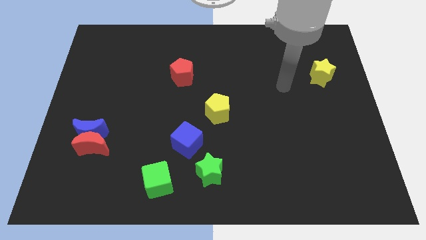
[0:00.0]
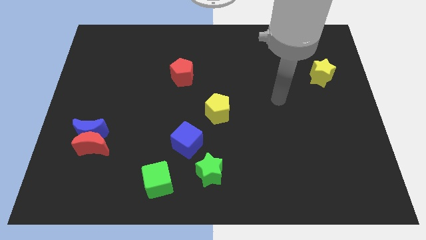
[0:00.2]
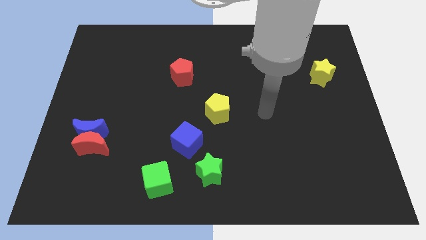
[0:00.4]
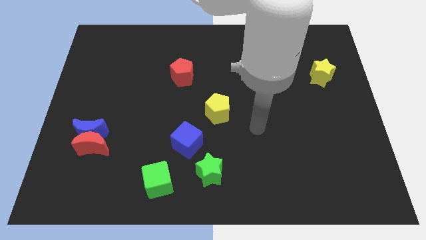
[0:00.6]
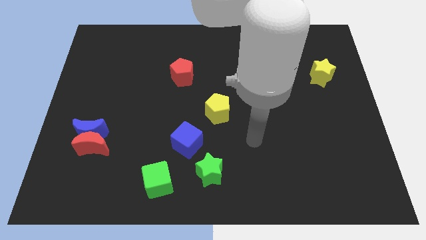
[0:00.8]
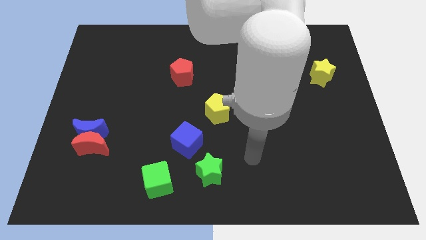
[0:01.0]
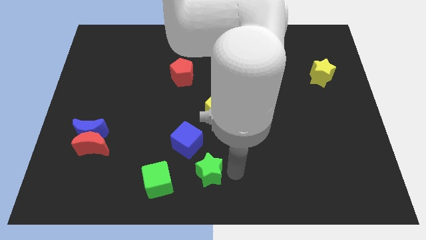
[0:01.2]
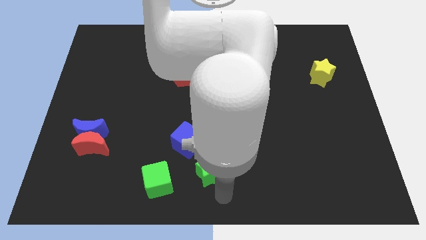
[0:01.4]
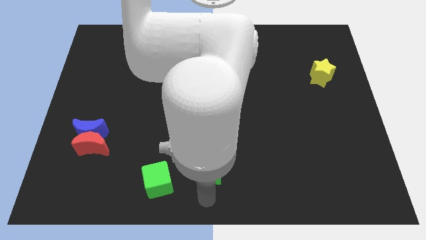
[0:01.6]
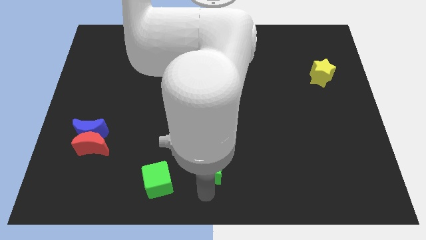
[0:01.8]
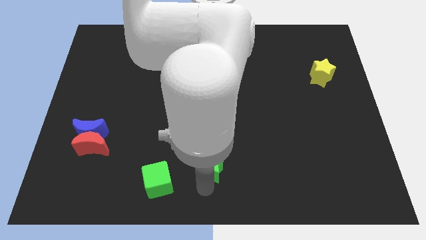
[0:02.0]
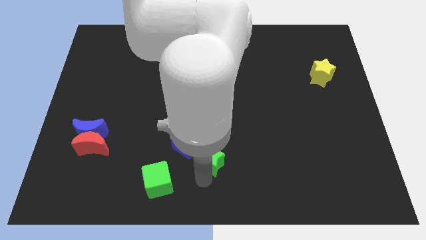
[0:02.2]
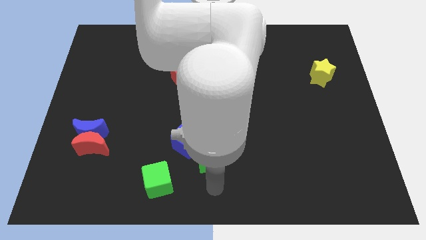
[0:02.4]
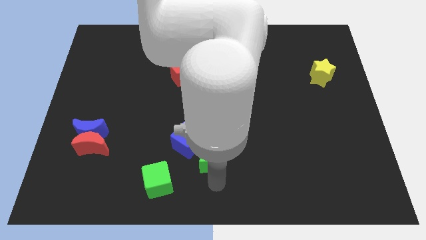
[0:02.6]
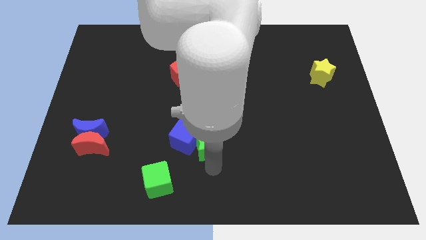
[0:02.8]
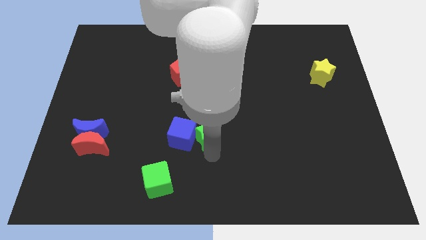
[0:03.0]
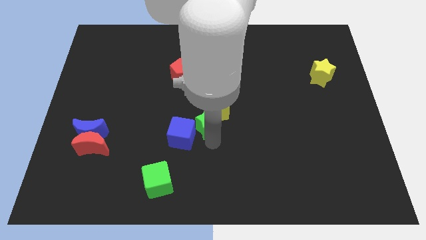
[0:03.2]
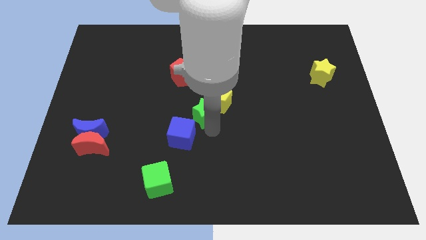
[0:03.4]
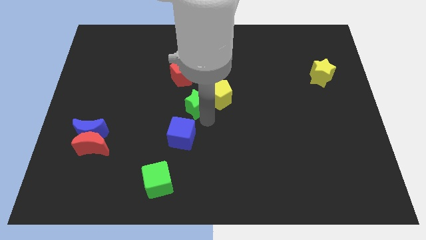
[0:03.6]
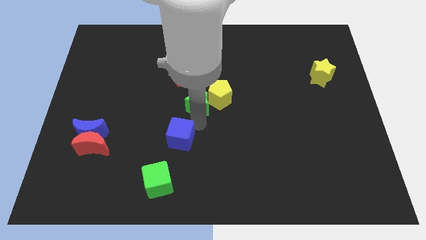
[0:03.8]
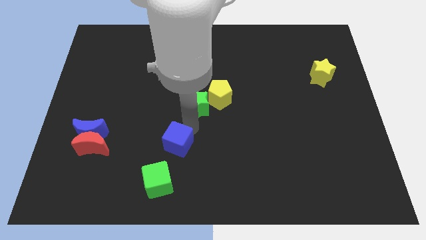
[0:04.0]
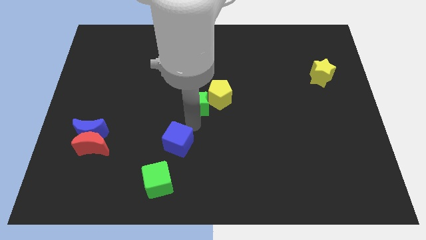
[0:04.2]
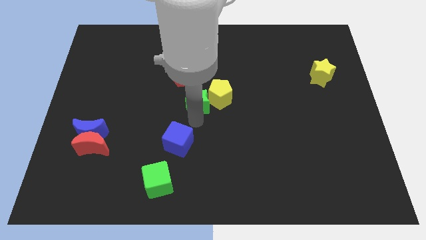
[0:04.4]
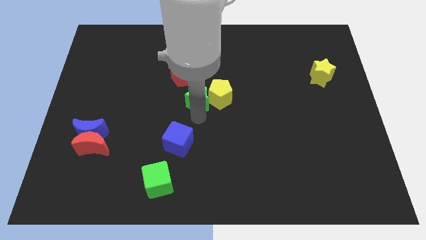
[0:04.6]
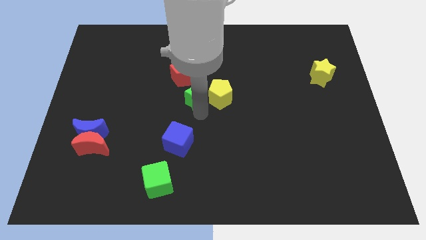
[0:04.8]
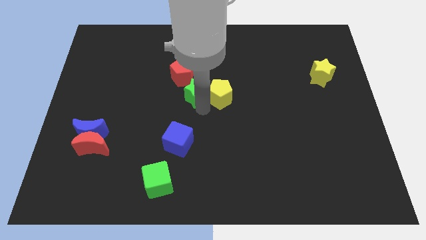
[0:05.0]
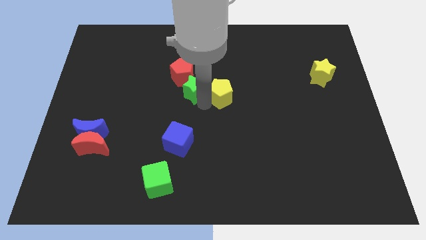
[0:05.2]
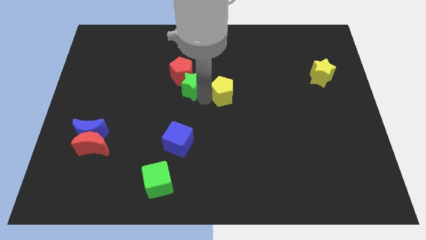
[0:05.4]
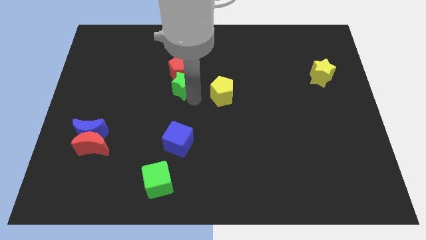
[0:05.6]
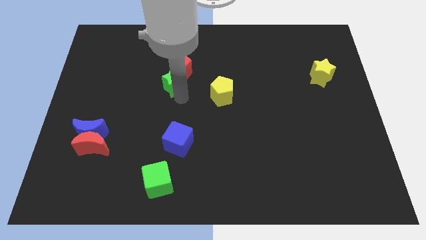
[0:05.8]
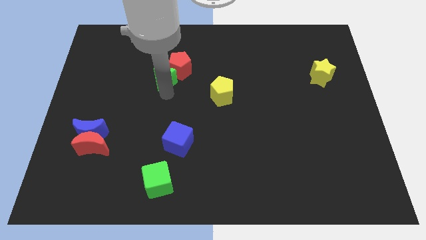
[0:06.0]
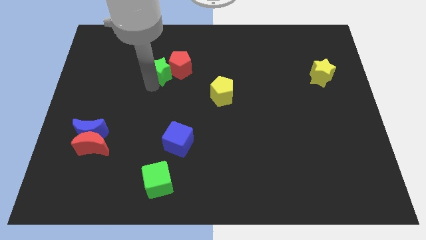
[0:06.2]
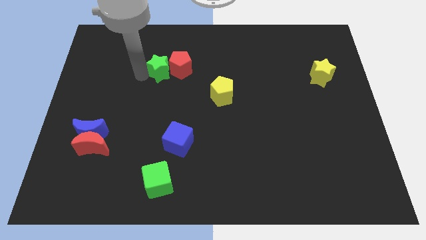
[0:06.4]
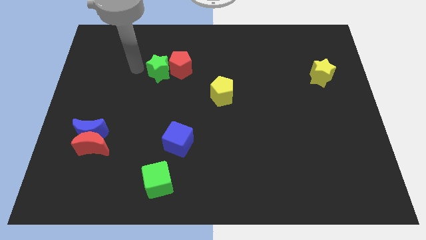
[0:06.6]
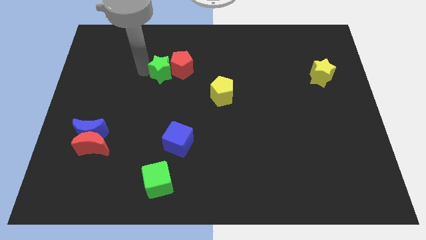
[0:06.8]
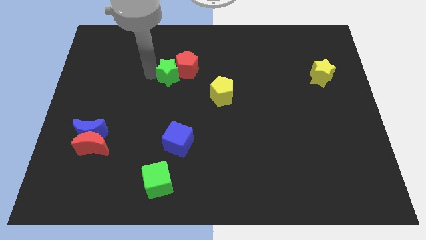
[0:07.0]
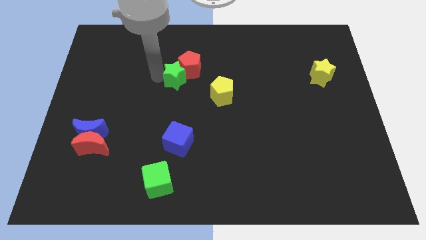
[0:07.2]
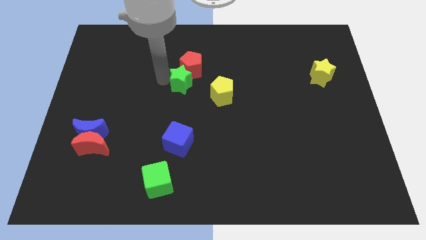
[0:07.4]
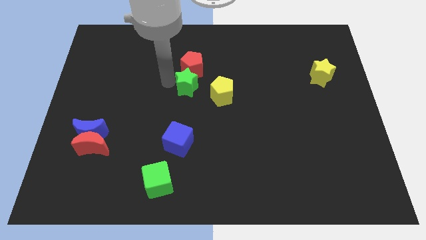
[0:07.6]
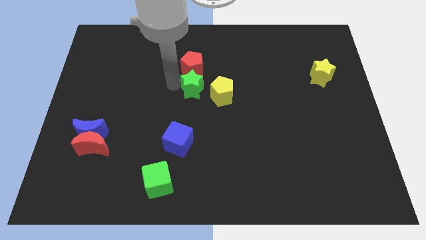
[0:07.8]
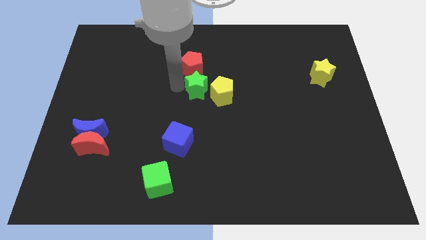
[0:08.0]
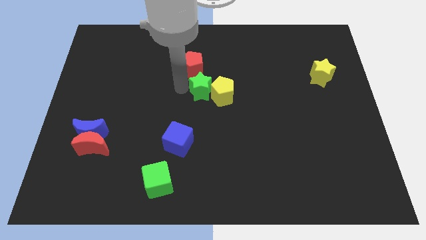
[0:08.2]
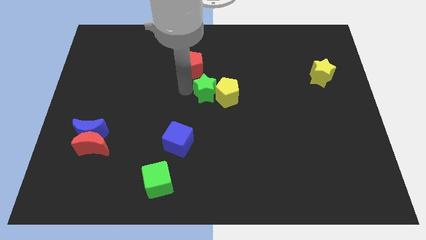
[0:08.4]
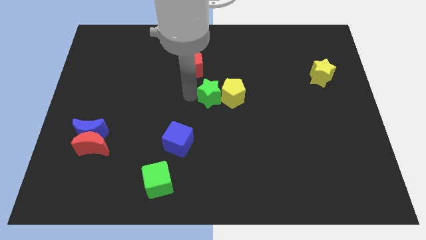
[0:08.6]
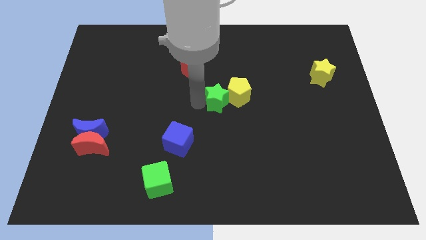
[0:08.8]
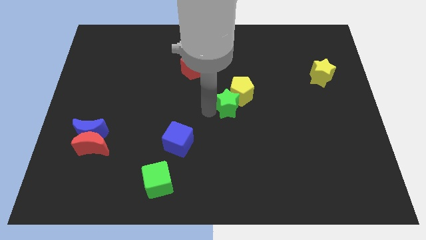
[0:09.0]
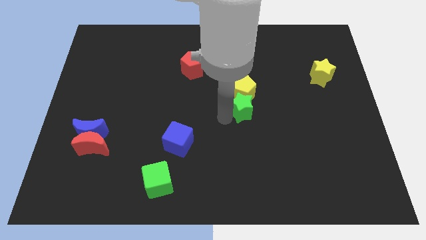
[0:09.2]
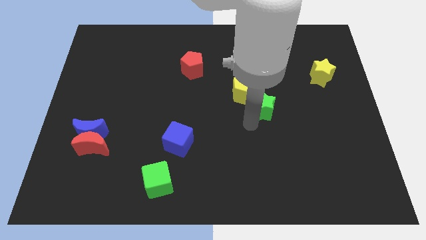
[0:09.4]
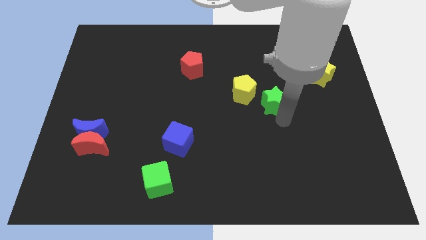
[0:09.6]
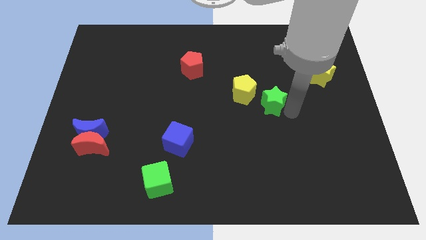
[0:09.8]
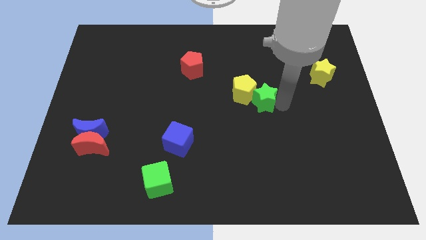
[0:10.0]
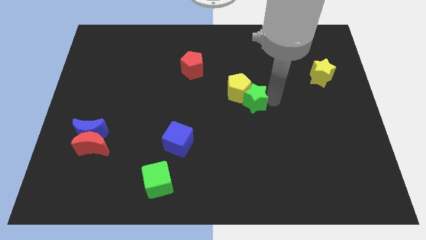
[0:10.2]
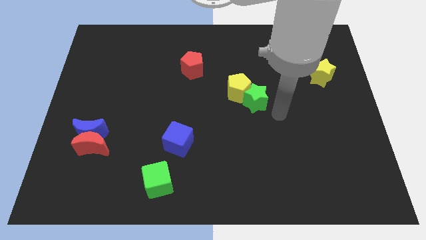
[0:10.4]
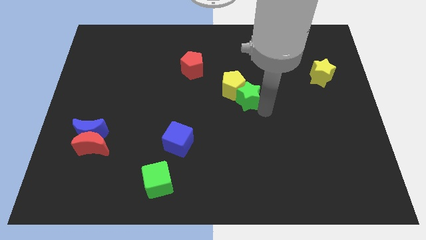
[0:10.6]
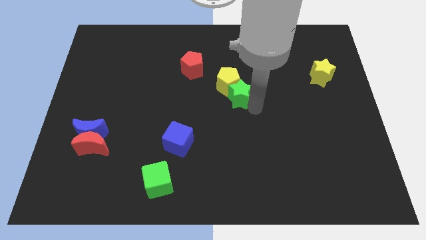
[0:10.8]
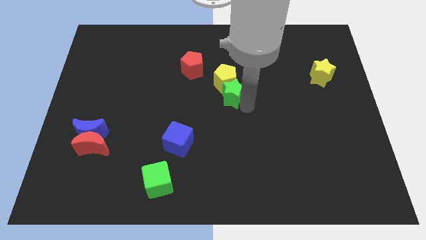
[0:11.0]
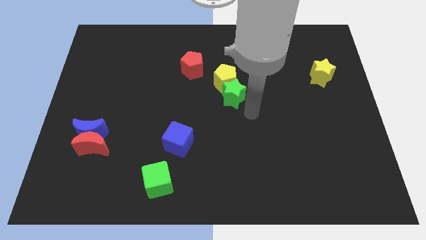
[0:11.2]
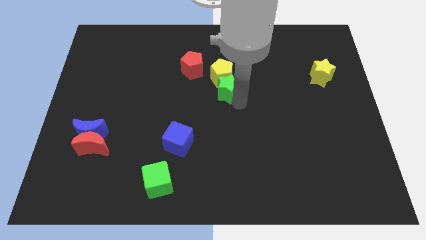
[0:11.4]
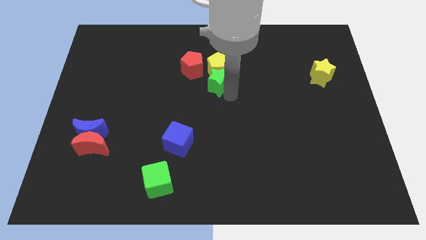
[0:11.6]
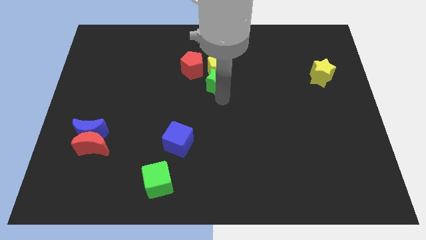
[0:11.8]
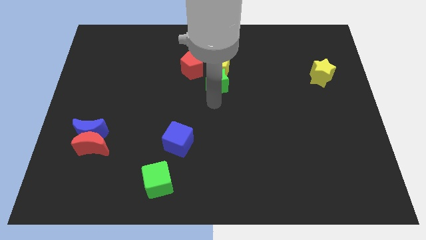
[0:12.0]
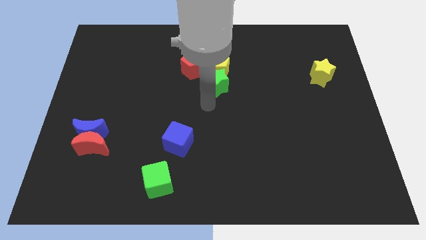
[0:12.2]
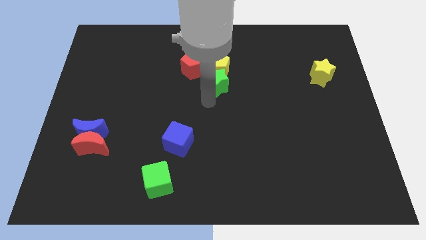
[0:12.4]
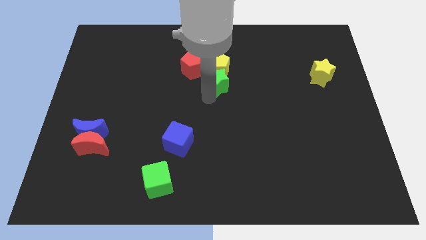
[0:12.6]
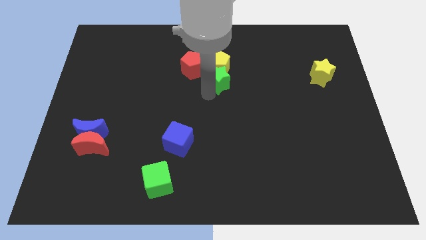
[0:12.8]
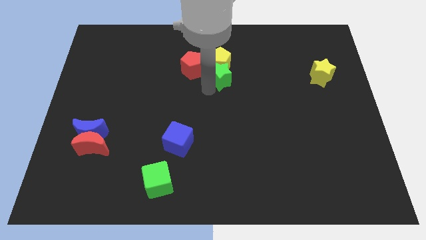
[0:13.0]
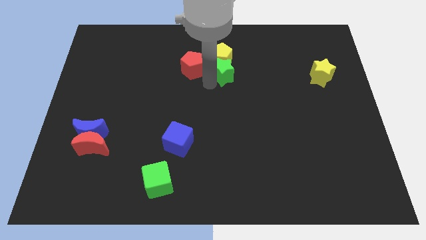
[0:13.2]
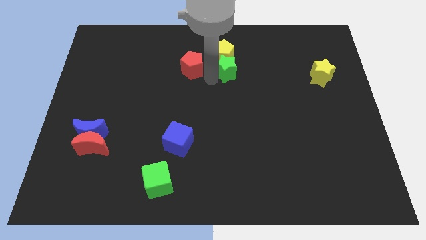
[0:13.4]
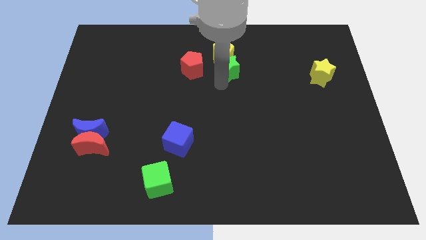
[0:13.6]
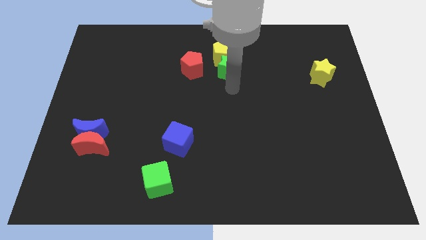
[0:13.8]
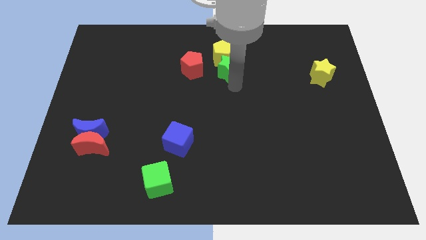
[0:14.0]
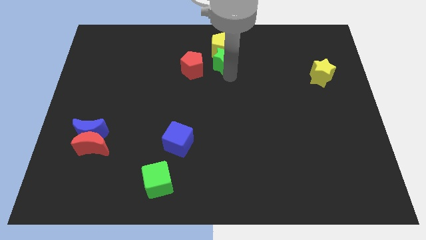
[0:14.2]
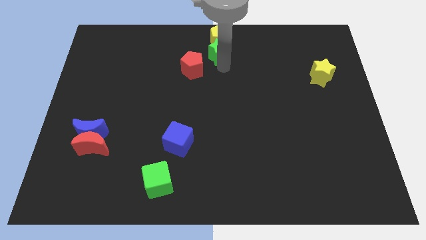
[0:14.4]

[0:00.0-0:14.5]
move the green star to the top side
